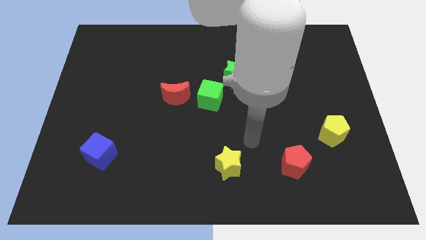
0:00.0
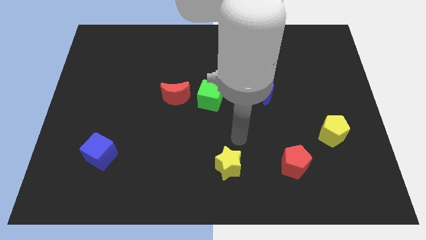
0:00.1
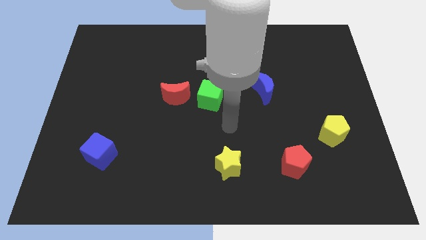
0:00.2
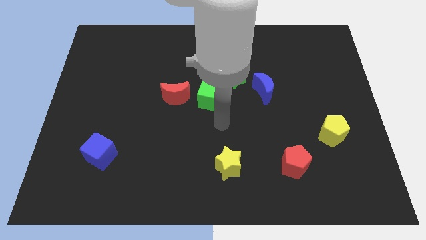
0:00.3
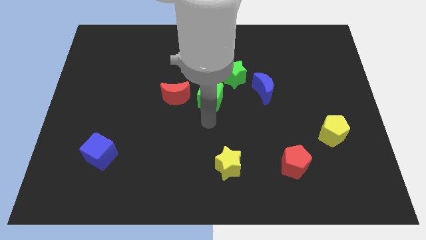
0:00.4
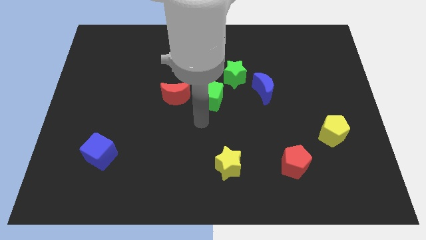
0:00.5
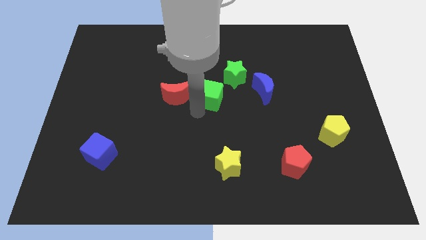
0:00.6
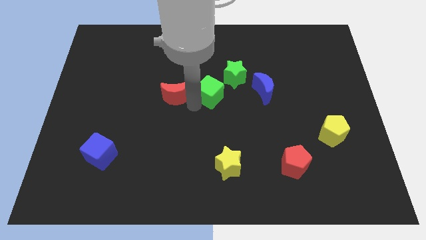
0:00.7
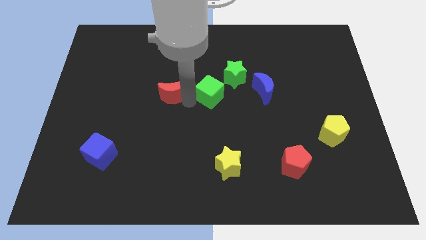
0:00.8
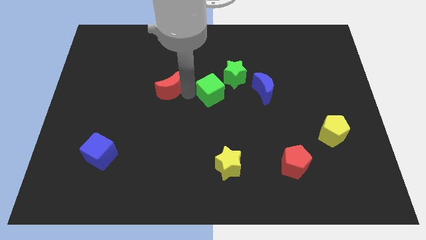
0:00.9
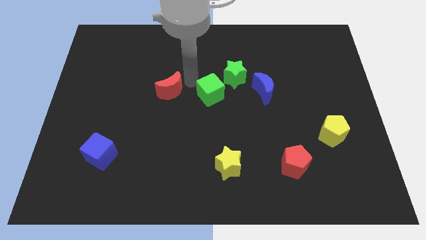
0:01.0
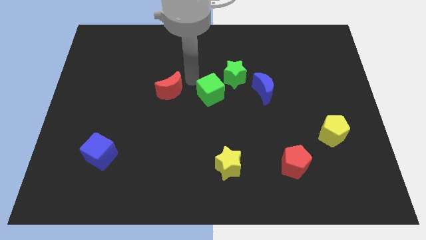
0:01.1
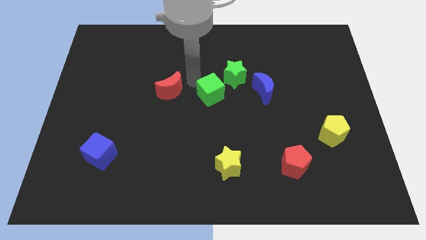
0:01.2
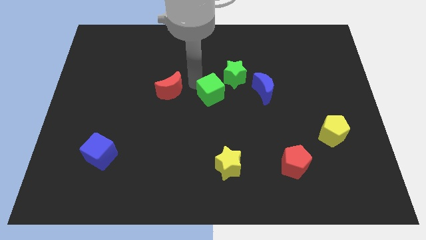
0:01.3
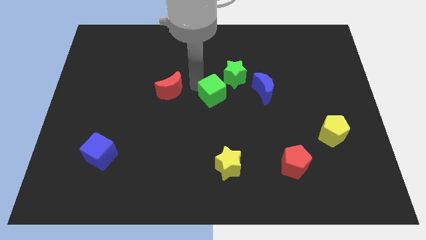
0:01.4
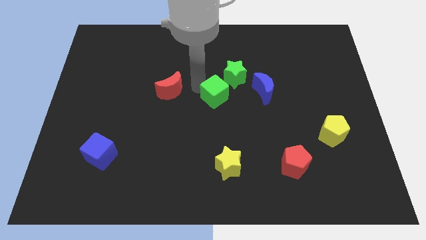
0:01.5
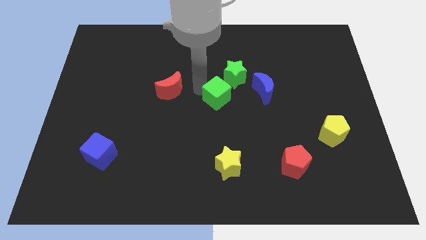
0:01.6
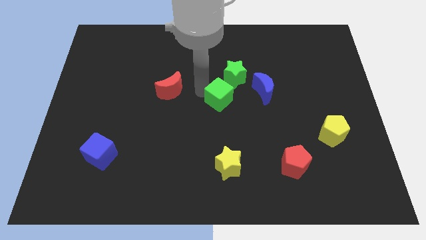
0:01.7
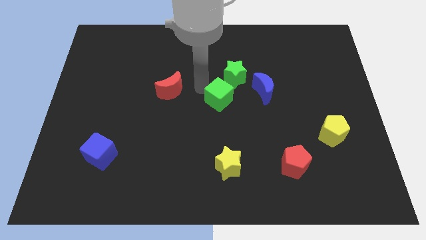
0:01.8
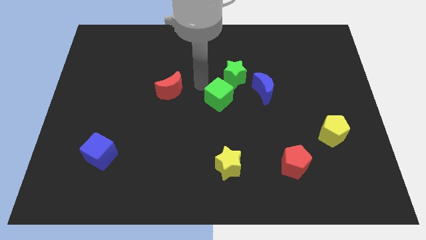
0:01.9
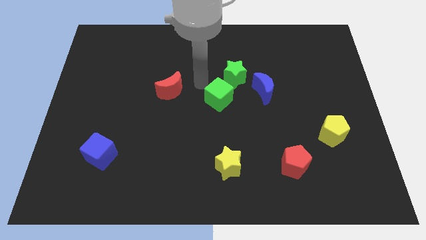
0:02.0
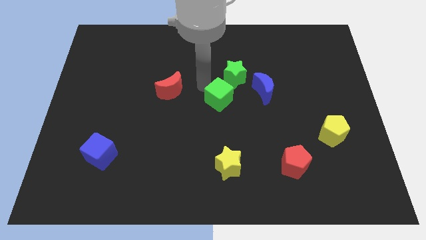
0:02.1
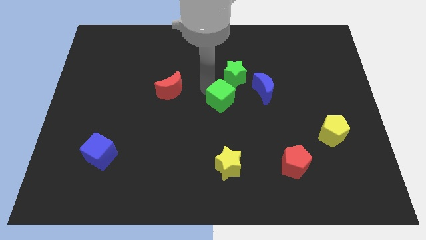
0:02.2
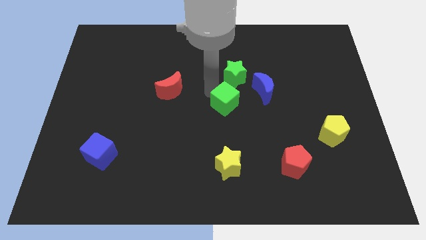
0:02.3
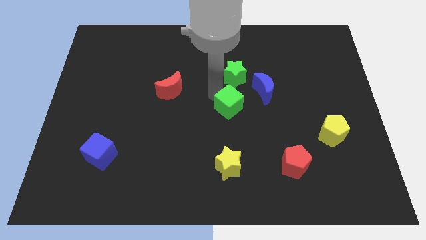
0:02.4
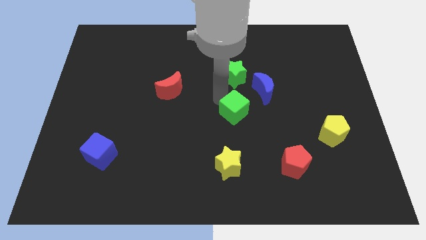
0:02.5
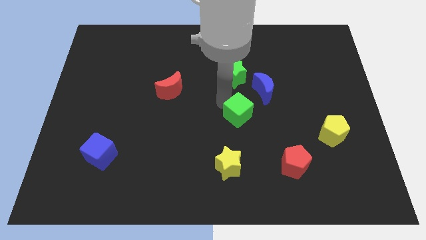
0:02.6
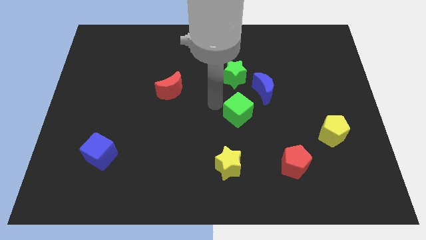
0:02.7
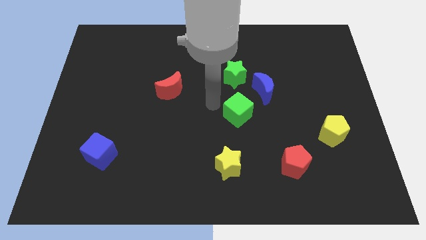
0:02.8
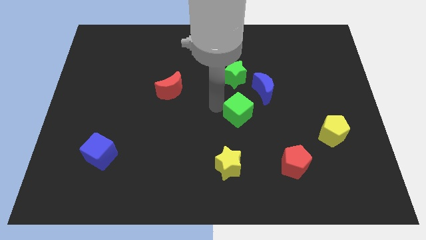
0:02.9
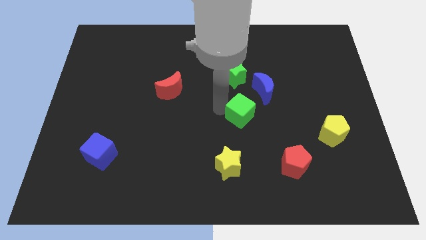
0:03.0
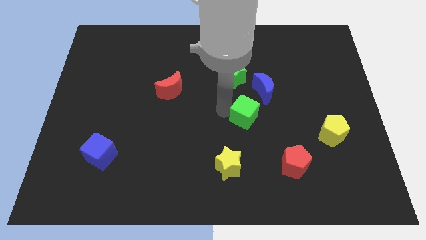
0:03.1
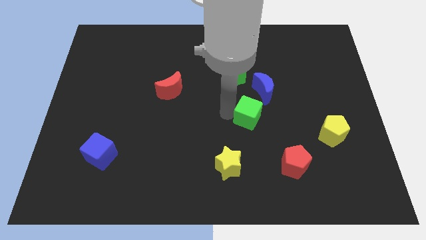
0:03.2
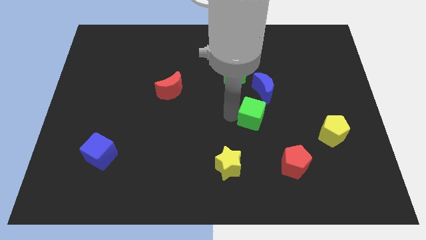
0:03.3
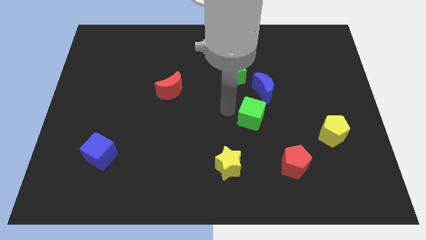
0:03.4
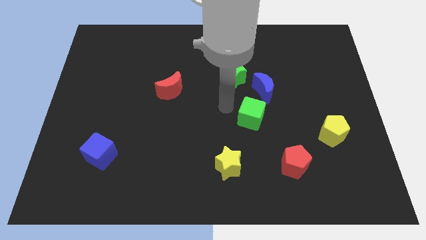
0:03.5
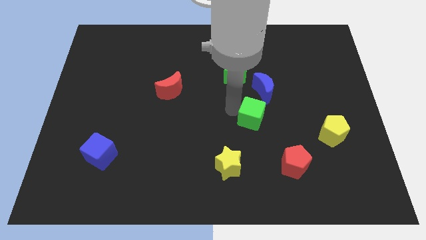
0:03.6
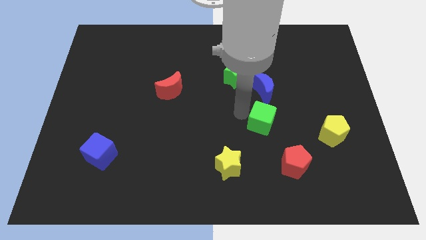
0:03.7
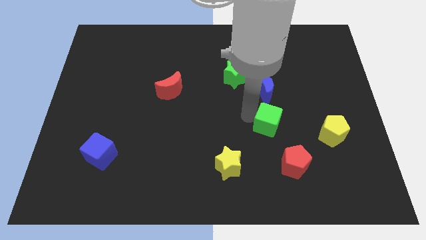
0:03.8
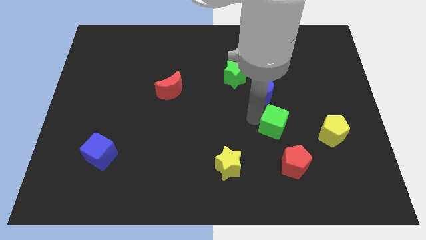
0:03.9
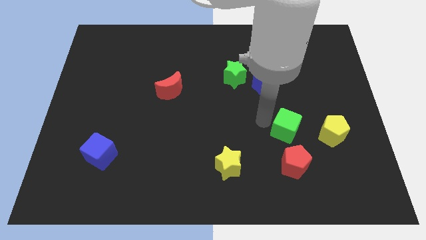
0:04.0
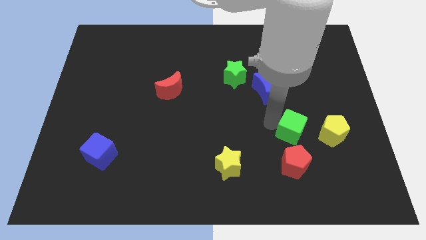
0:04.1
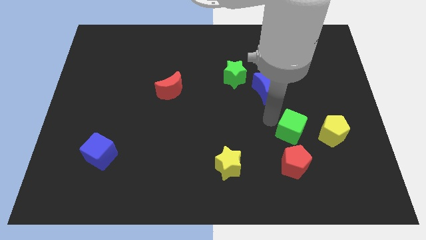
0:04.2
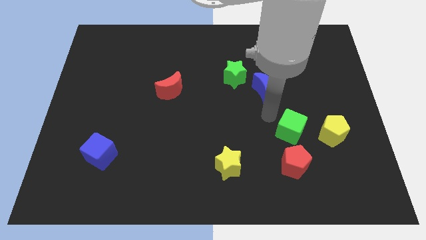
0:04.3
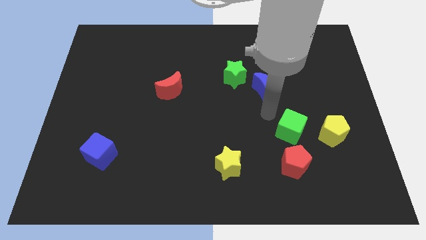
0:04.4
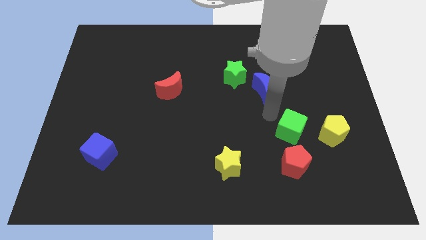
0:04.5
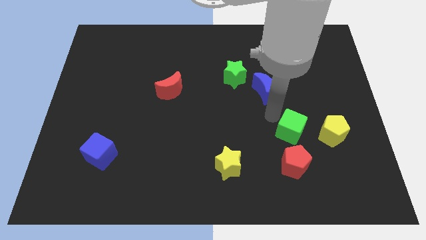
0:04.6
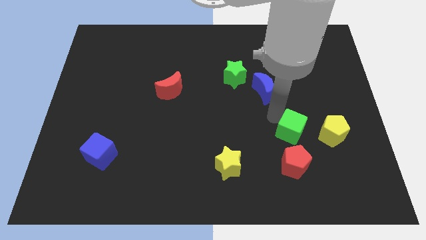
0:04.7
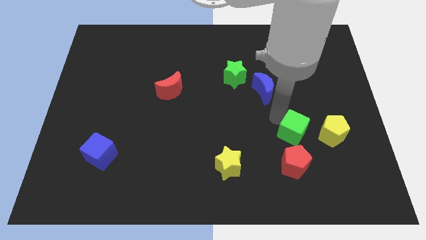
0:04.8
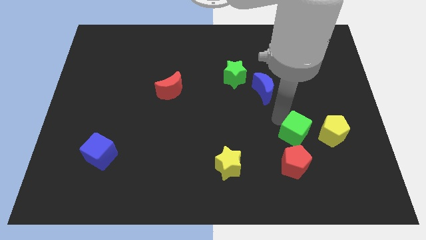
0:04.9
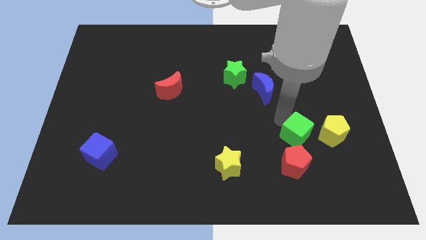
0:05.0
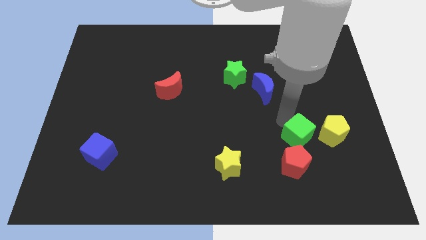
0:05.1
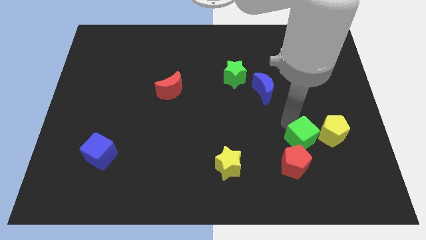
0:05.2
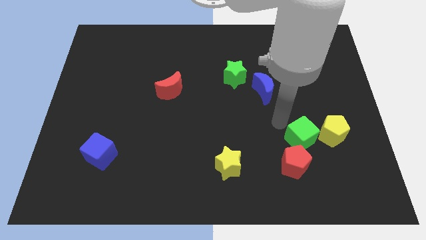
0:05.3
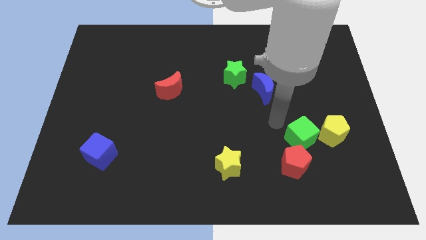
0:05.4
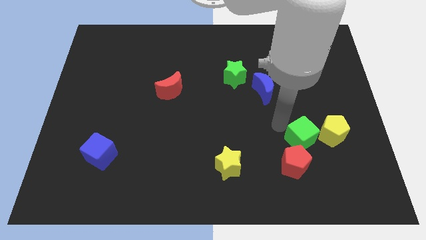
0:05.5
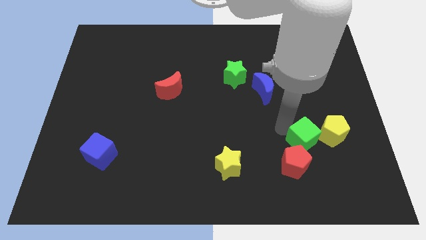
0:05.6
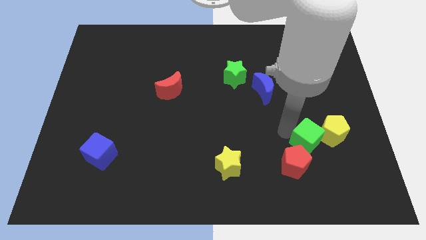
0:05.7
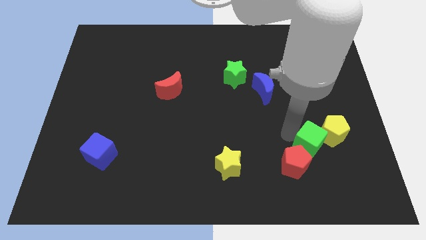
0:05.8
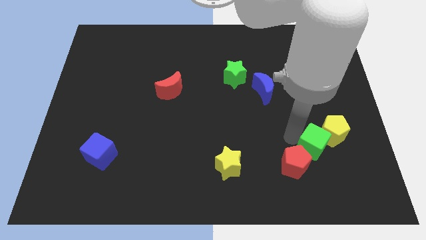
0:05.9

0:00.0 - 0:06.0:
push the green cube right of the red pentagon

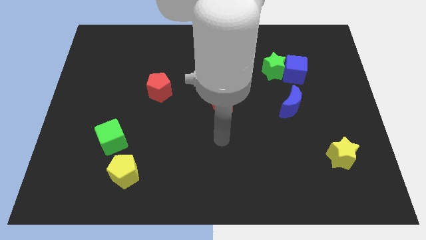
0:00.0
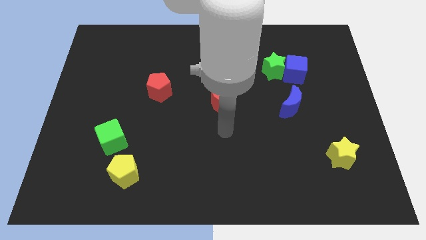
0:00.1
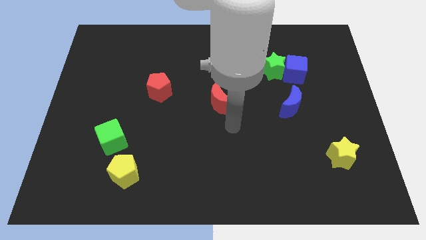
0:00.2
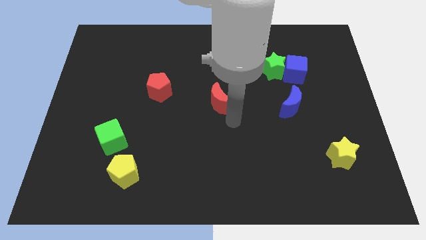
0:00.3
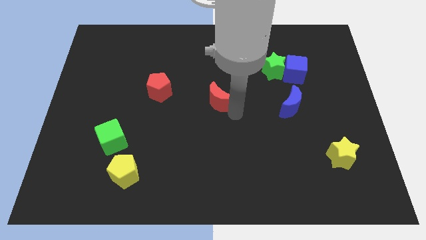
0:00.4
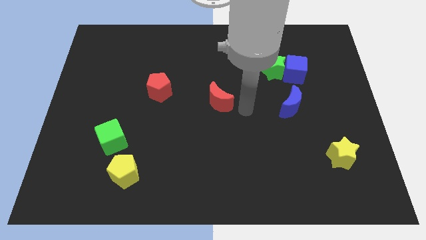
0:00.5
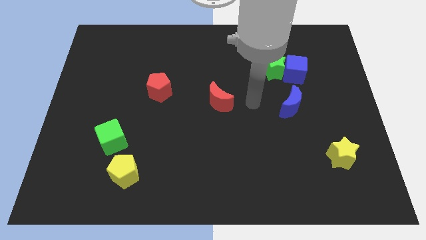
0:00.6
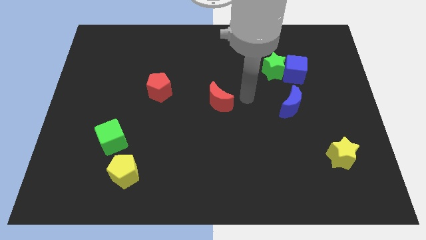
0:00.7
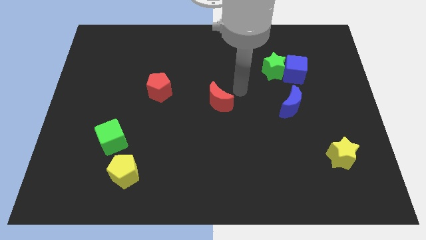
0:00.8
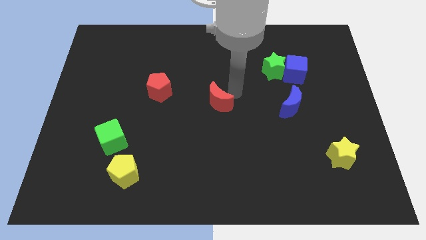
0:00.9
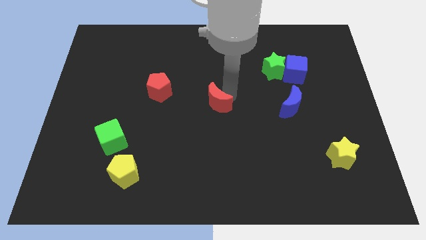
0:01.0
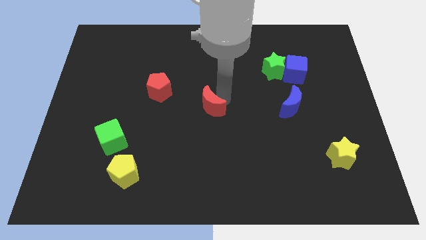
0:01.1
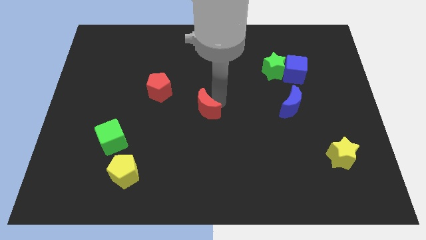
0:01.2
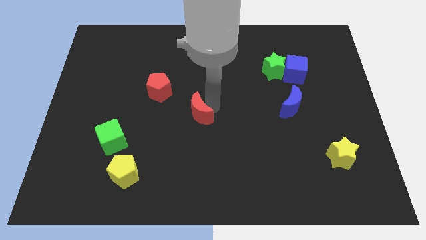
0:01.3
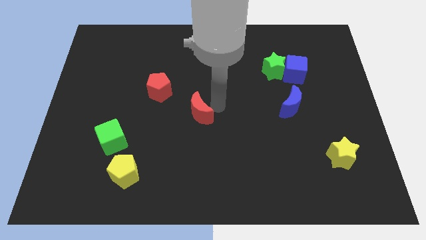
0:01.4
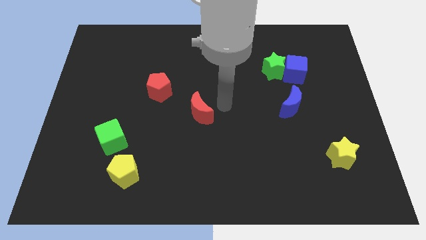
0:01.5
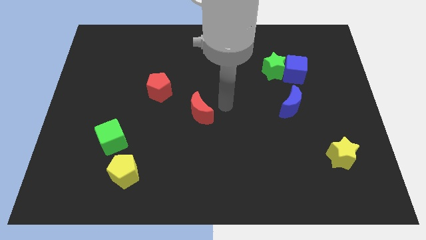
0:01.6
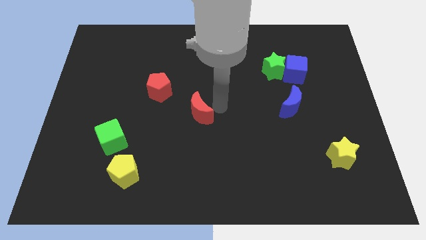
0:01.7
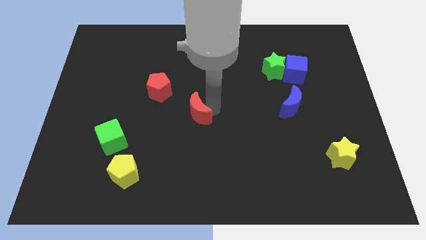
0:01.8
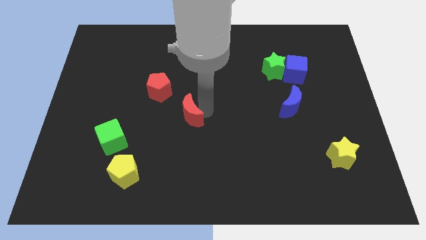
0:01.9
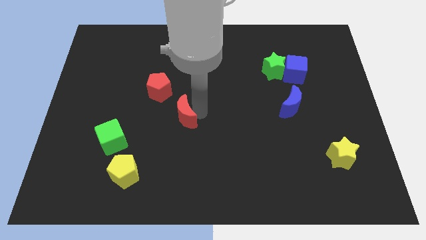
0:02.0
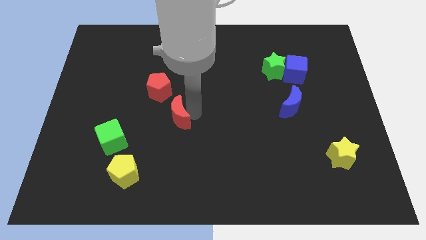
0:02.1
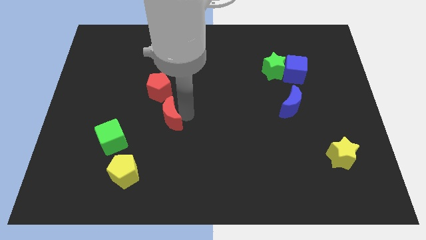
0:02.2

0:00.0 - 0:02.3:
put the red moon to the bottom of the red pentagon
